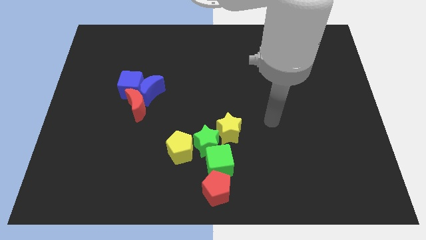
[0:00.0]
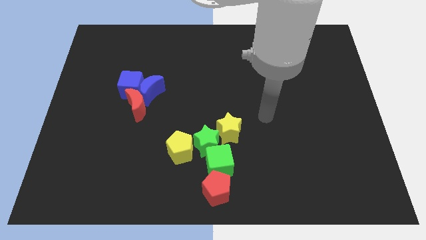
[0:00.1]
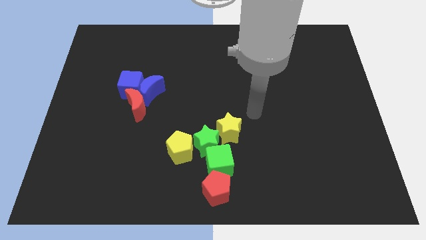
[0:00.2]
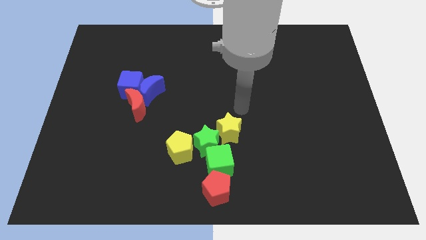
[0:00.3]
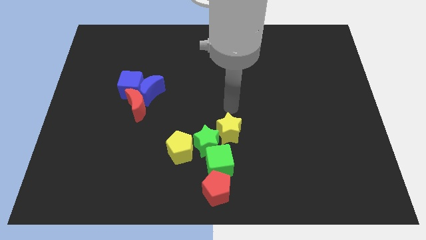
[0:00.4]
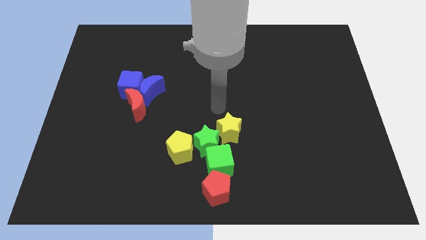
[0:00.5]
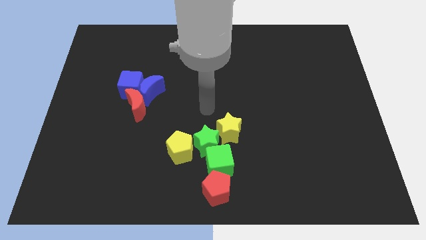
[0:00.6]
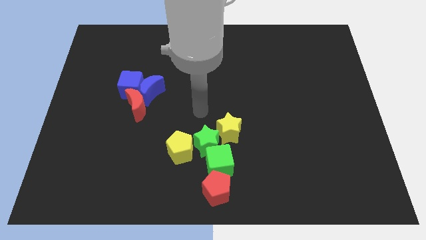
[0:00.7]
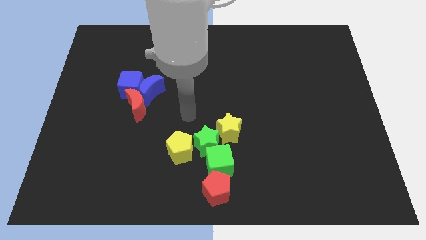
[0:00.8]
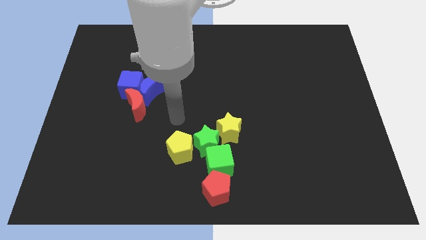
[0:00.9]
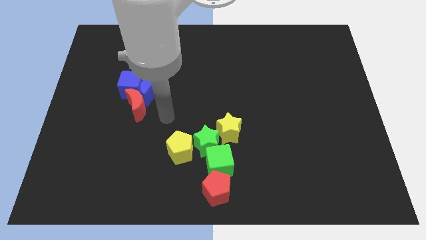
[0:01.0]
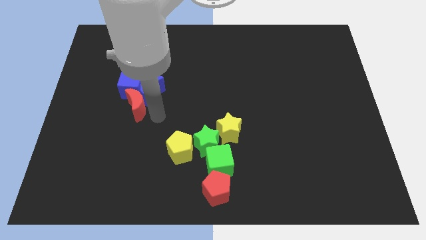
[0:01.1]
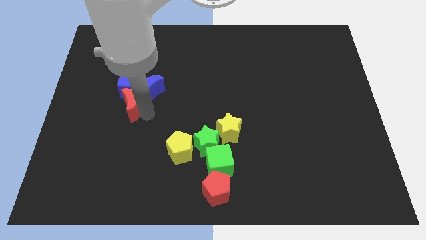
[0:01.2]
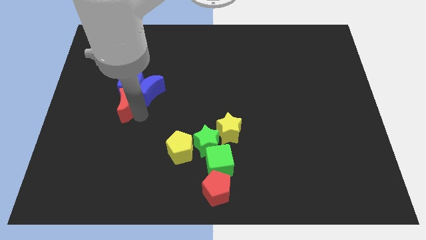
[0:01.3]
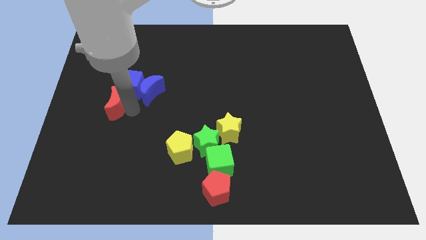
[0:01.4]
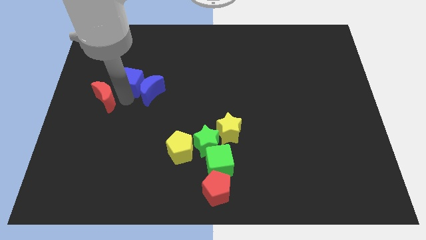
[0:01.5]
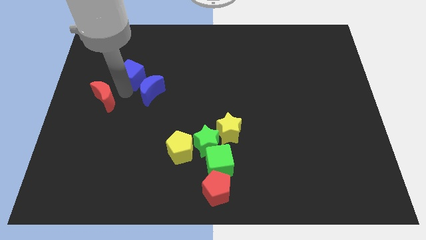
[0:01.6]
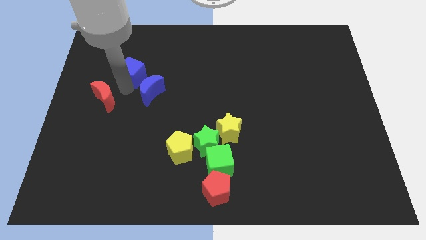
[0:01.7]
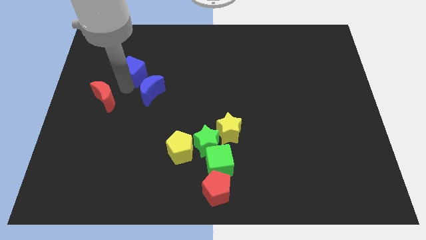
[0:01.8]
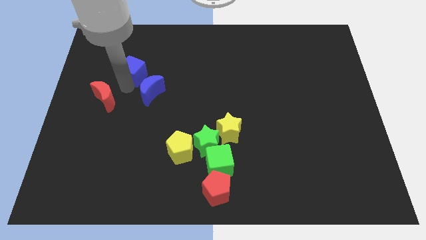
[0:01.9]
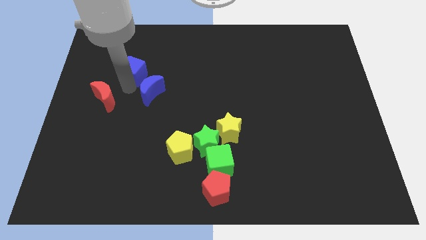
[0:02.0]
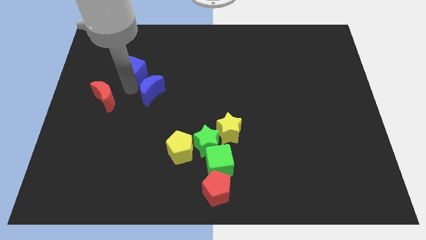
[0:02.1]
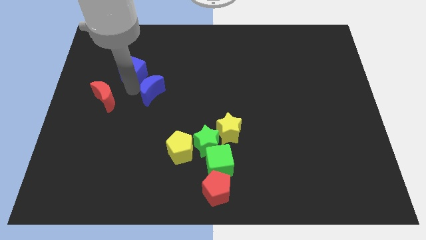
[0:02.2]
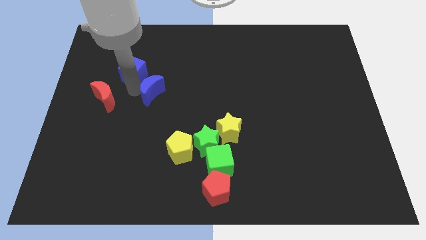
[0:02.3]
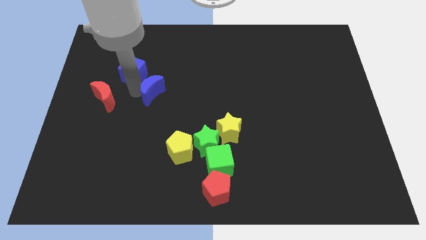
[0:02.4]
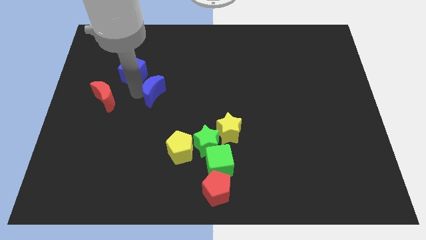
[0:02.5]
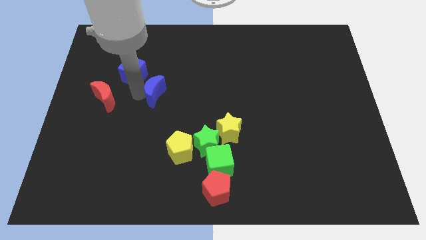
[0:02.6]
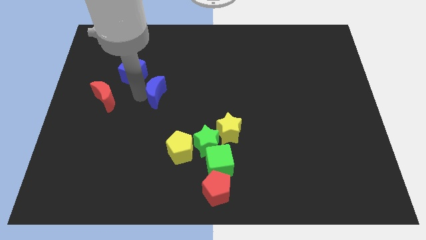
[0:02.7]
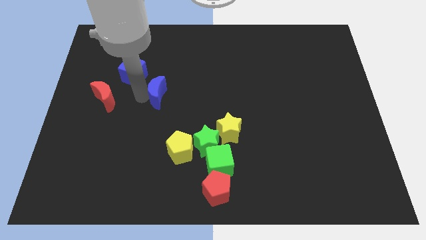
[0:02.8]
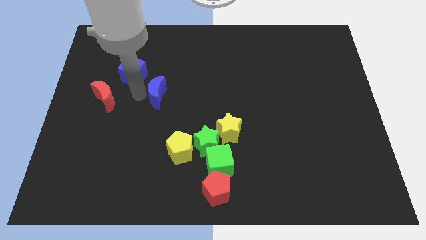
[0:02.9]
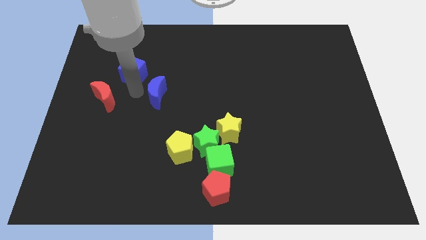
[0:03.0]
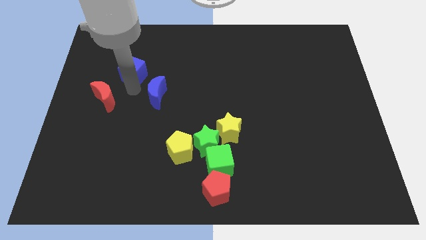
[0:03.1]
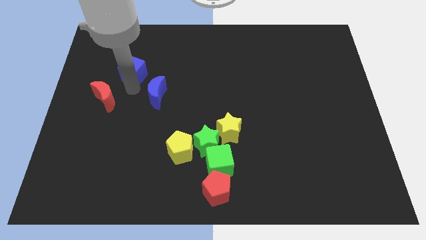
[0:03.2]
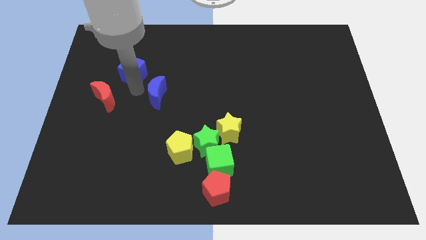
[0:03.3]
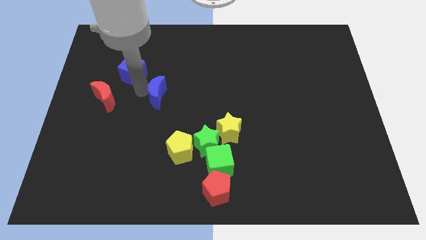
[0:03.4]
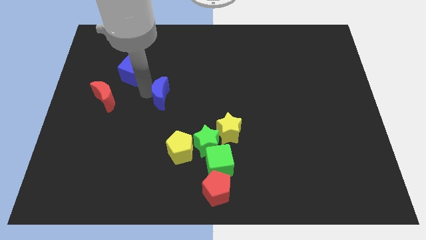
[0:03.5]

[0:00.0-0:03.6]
separate the blue moon from the blue cube and red moon

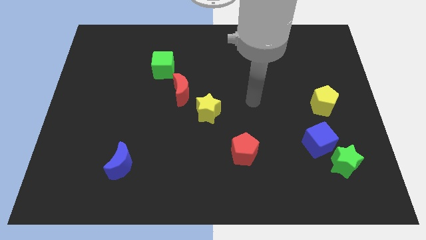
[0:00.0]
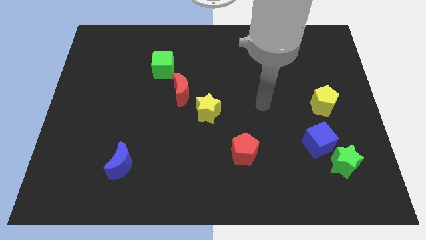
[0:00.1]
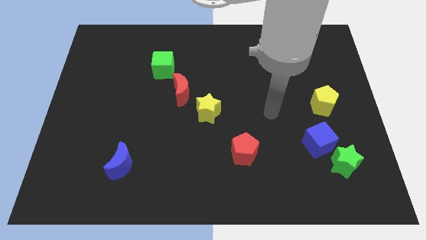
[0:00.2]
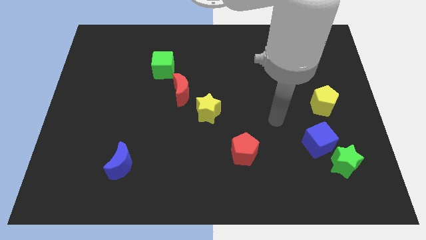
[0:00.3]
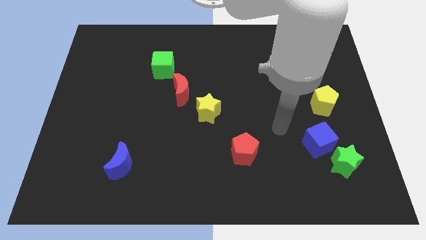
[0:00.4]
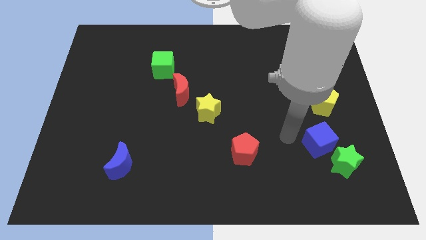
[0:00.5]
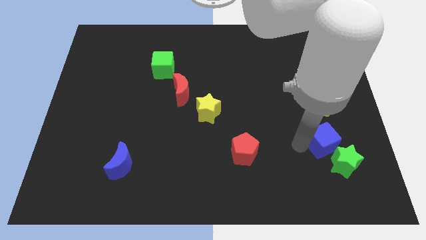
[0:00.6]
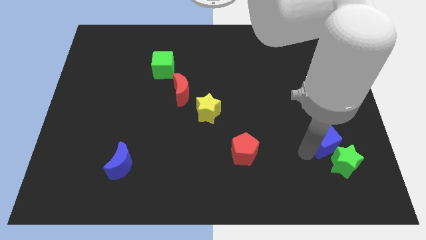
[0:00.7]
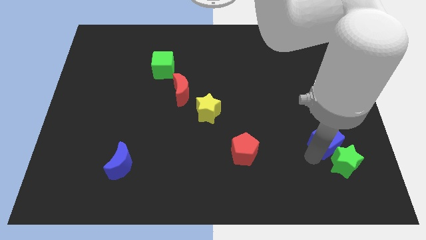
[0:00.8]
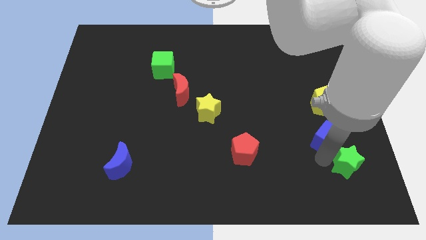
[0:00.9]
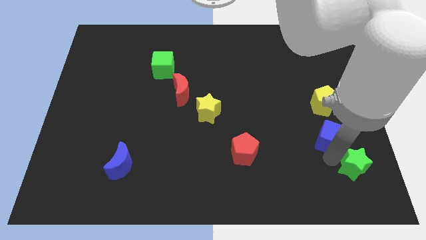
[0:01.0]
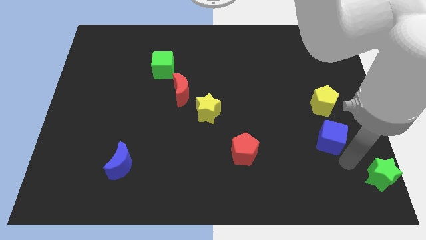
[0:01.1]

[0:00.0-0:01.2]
separate the blue cube from the green star

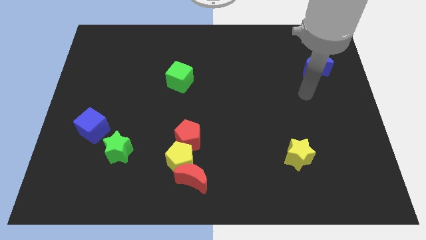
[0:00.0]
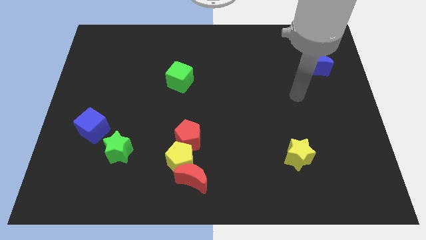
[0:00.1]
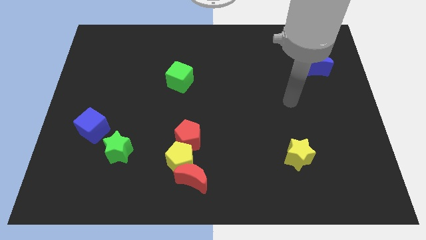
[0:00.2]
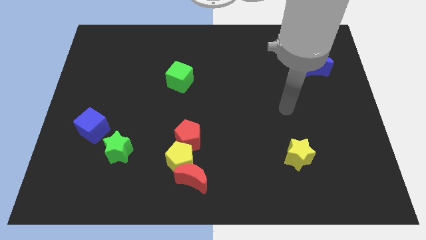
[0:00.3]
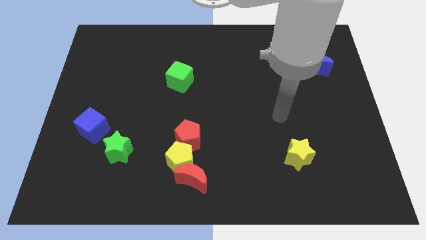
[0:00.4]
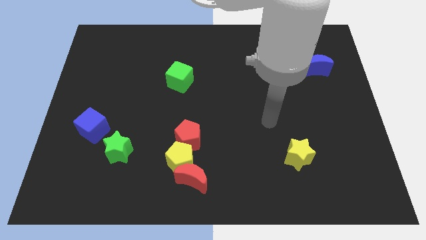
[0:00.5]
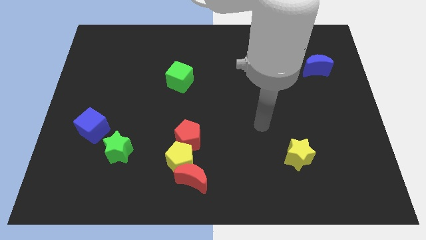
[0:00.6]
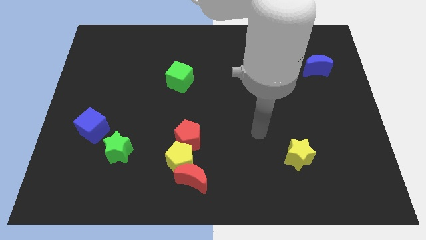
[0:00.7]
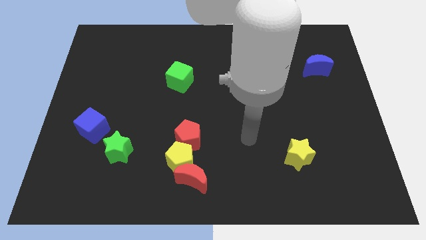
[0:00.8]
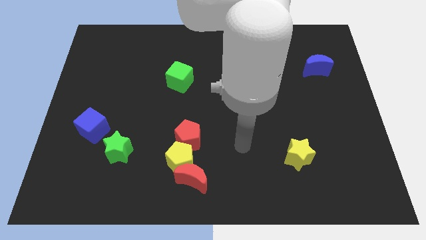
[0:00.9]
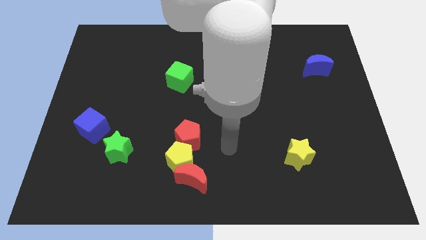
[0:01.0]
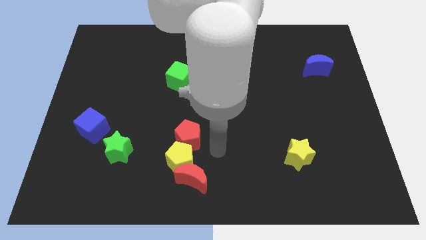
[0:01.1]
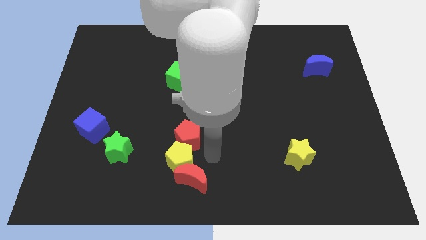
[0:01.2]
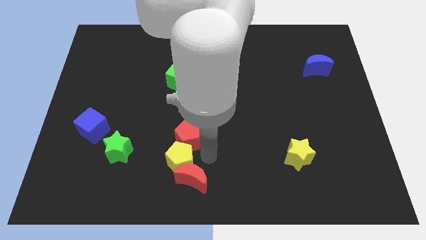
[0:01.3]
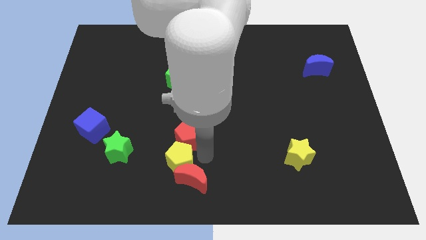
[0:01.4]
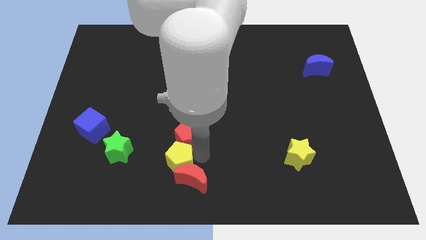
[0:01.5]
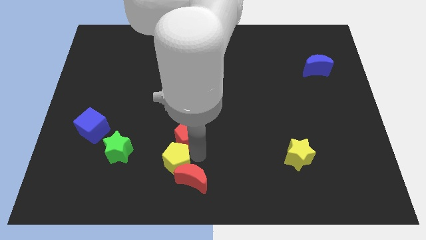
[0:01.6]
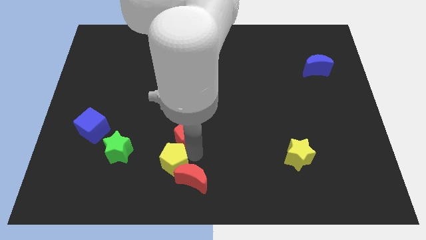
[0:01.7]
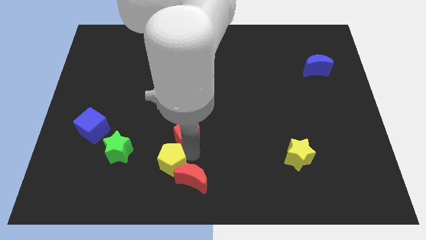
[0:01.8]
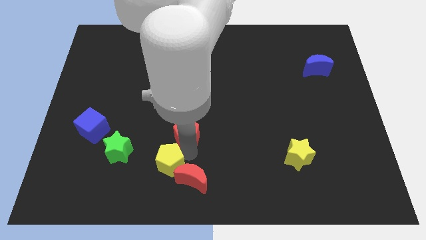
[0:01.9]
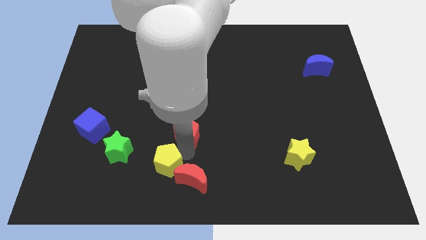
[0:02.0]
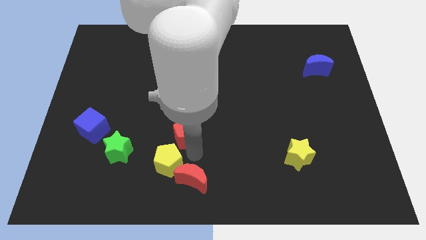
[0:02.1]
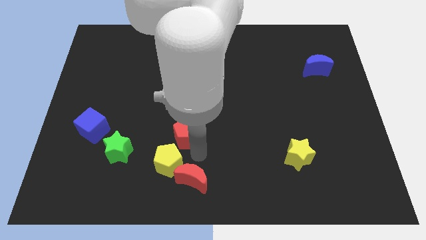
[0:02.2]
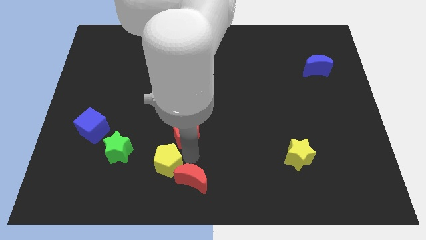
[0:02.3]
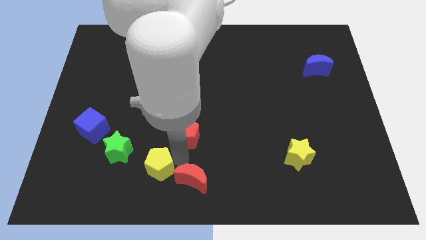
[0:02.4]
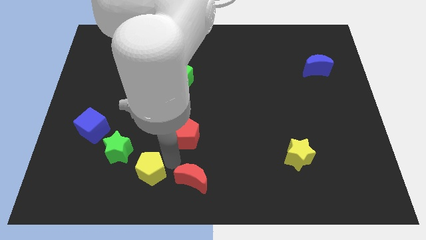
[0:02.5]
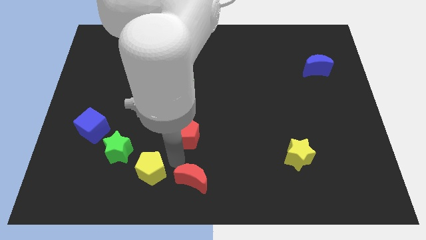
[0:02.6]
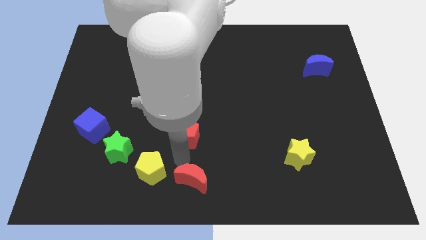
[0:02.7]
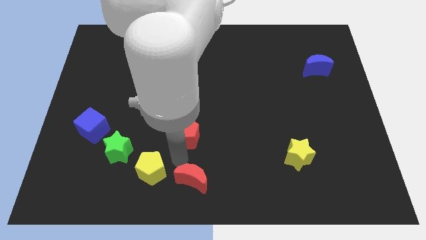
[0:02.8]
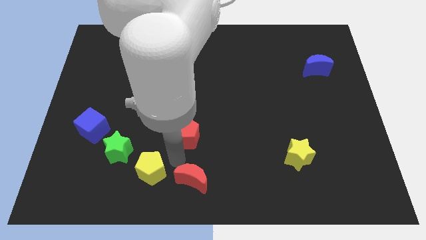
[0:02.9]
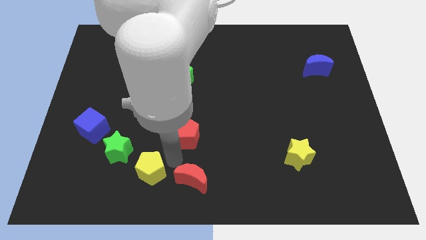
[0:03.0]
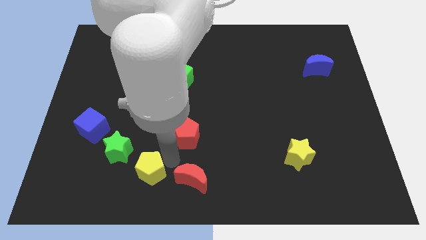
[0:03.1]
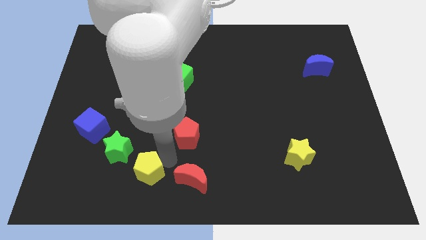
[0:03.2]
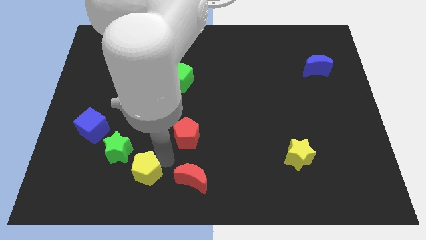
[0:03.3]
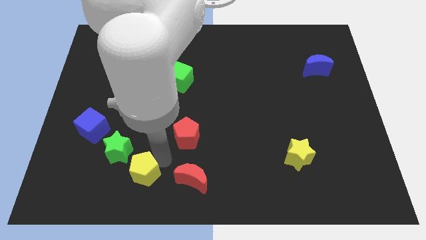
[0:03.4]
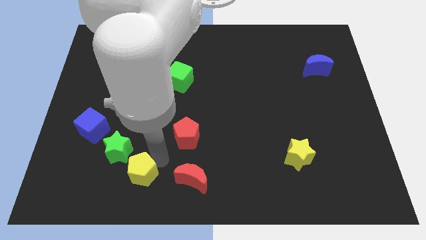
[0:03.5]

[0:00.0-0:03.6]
move the yellow pentagon away from the red moon and red pentagon

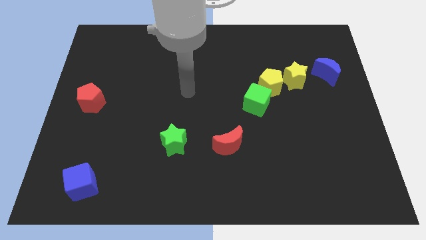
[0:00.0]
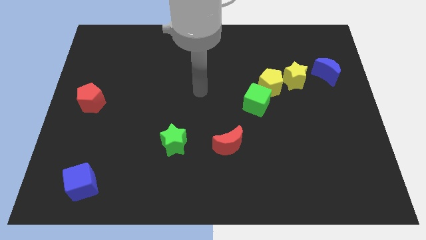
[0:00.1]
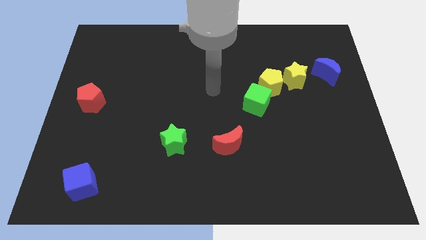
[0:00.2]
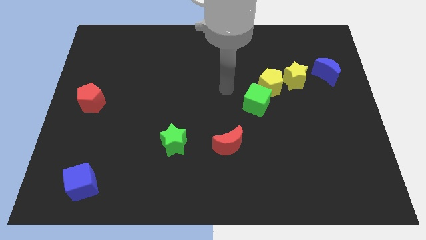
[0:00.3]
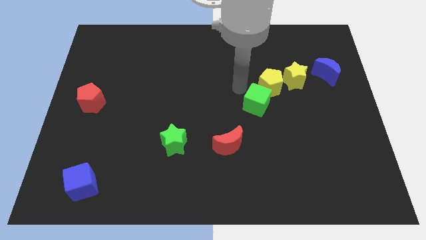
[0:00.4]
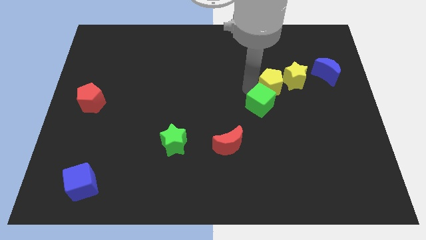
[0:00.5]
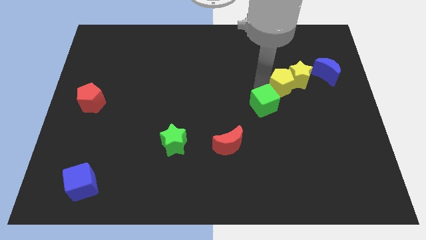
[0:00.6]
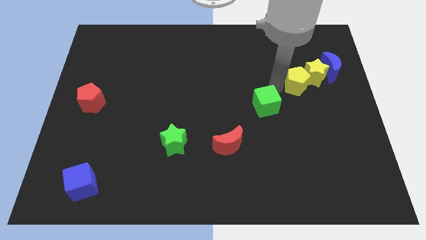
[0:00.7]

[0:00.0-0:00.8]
separate the green cube from the yellow pentagon
